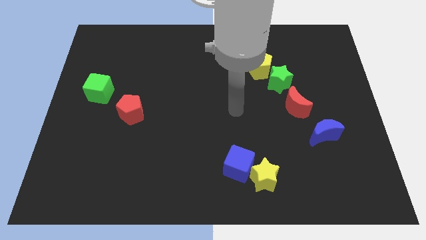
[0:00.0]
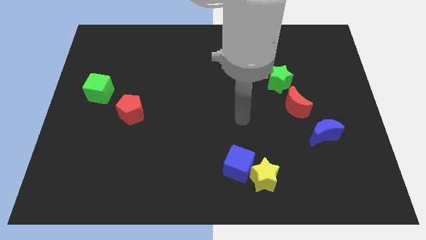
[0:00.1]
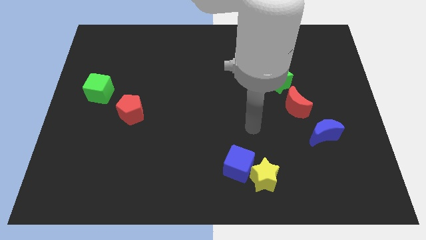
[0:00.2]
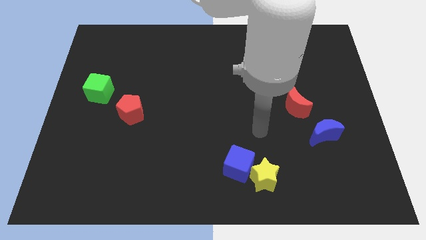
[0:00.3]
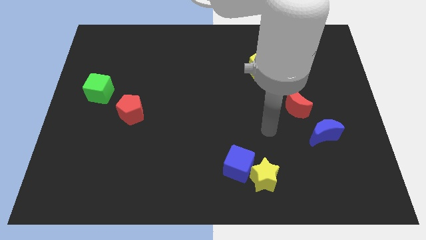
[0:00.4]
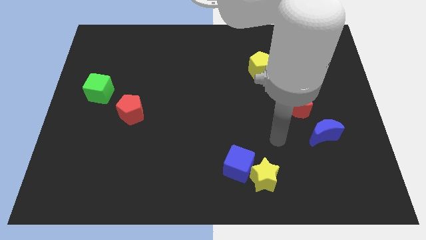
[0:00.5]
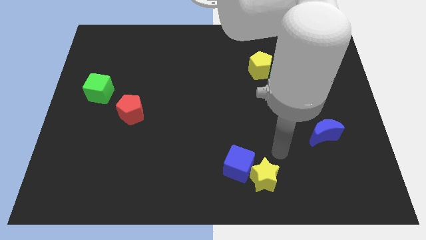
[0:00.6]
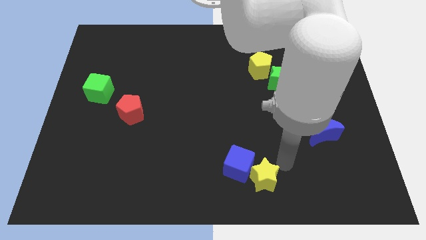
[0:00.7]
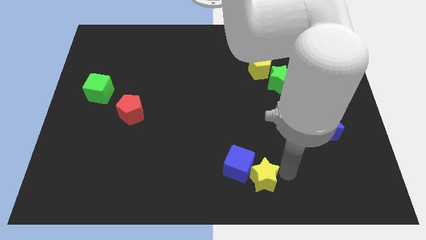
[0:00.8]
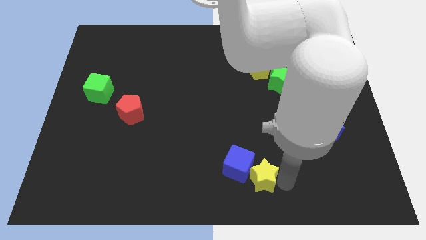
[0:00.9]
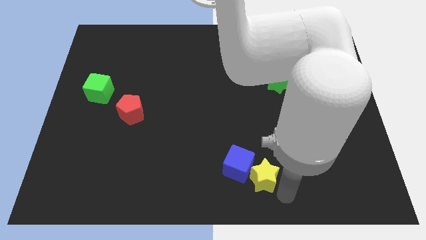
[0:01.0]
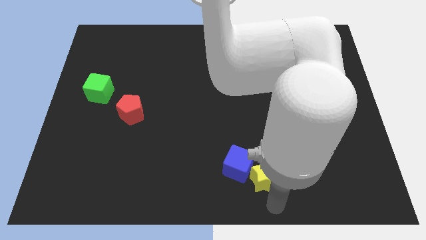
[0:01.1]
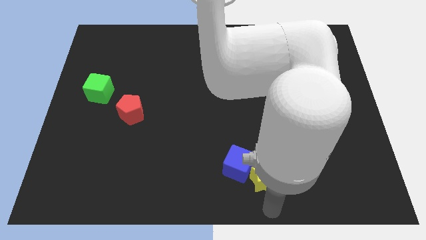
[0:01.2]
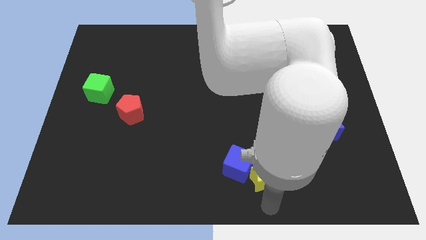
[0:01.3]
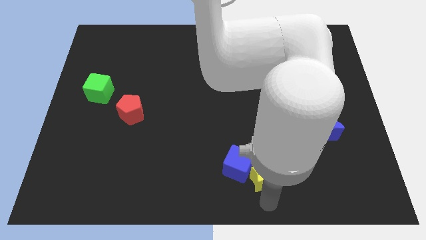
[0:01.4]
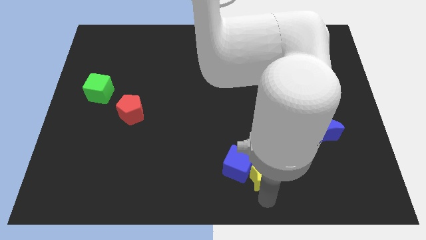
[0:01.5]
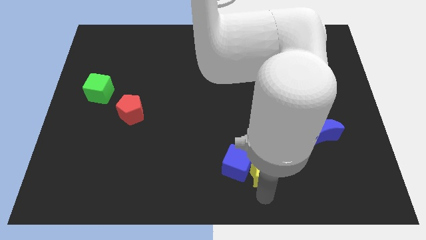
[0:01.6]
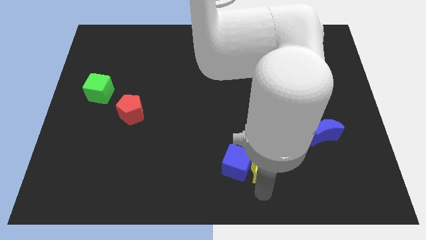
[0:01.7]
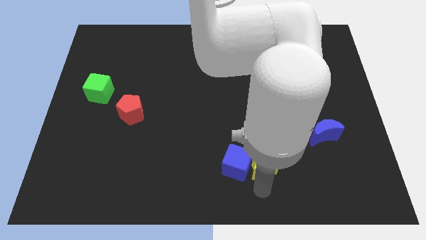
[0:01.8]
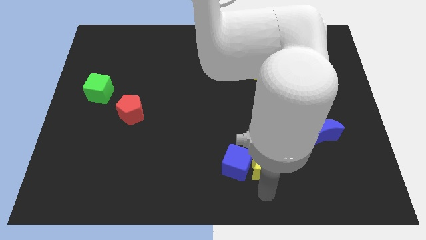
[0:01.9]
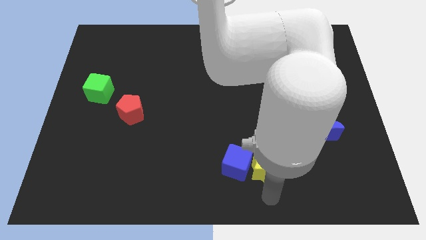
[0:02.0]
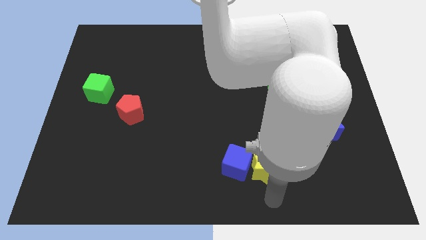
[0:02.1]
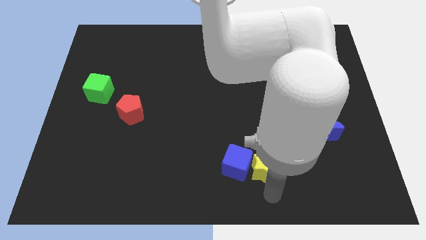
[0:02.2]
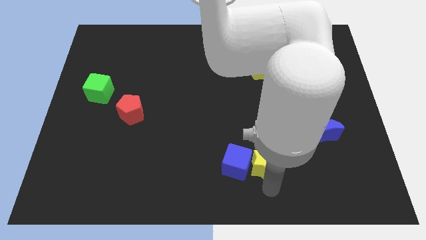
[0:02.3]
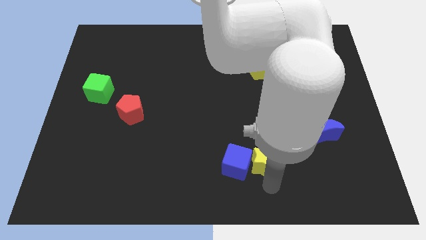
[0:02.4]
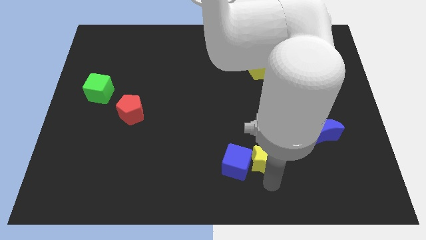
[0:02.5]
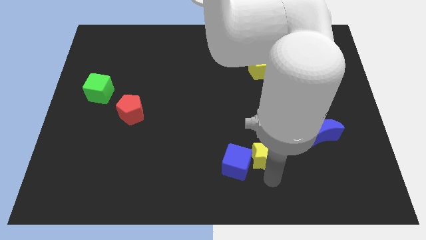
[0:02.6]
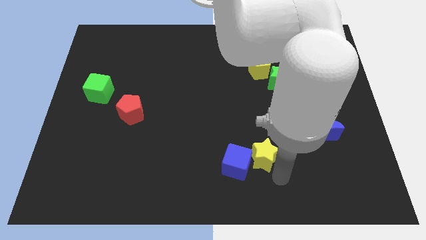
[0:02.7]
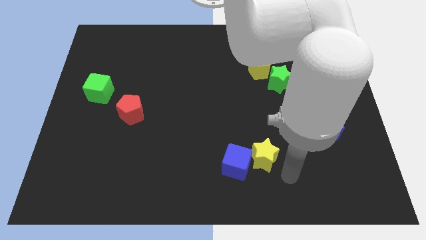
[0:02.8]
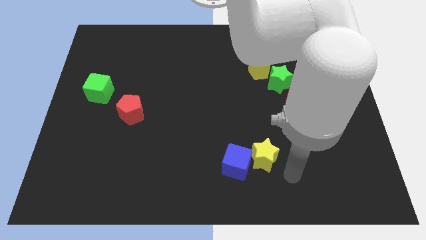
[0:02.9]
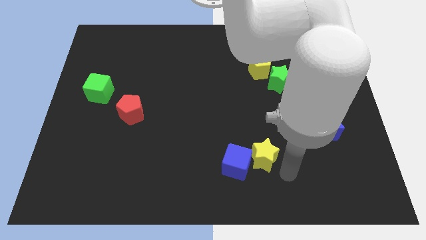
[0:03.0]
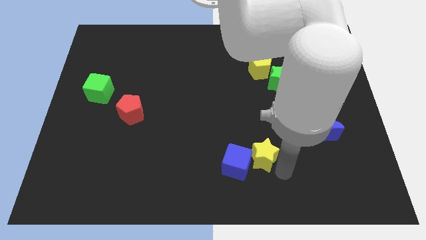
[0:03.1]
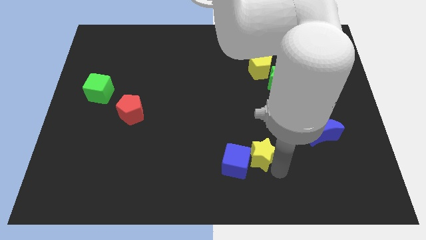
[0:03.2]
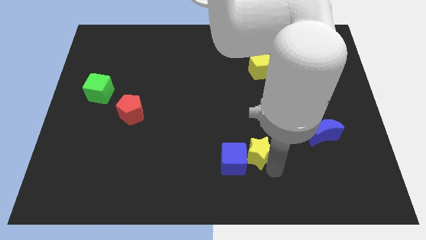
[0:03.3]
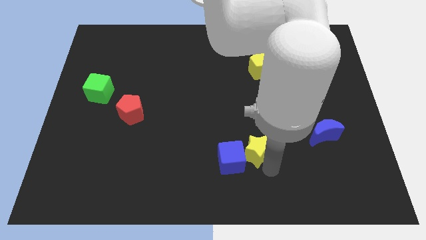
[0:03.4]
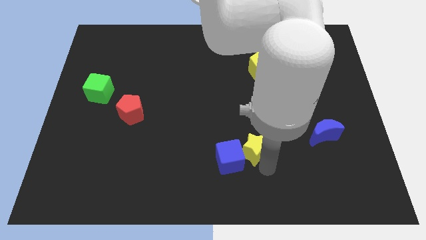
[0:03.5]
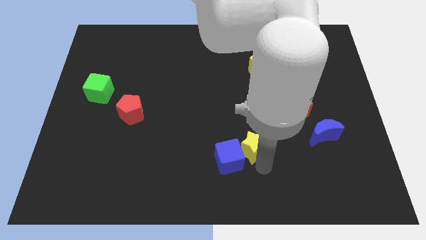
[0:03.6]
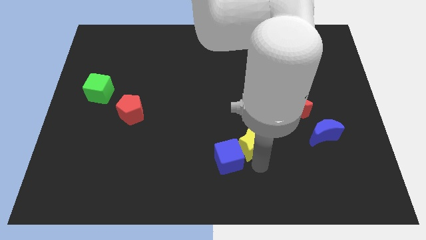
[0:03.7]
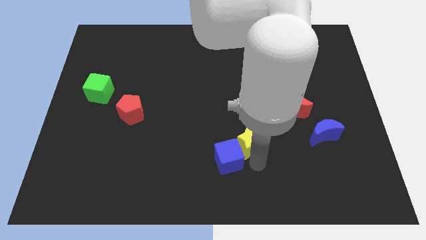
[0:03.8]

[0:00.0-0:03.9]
slightly slide the yellow star upwards and then left

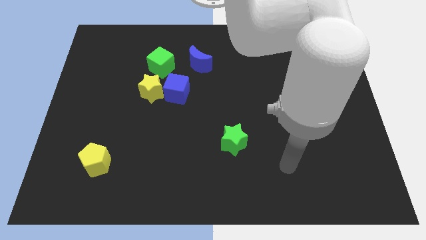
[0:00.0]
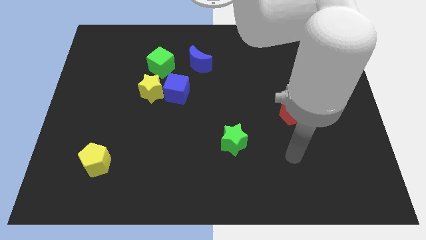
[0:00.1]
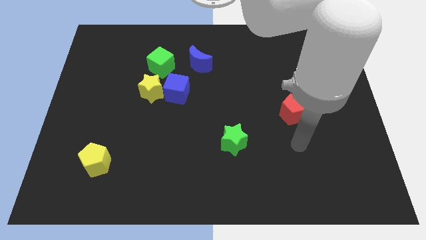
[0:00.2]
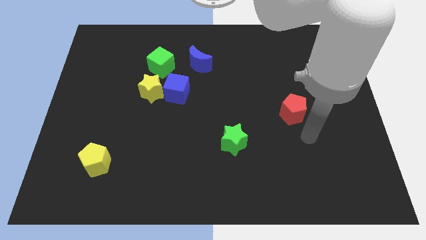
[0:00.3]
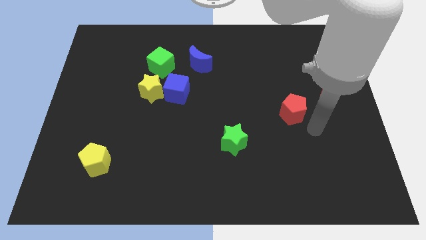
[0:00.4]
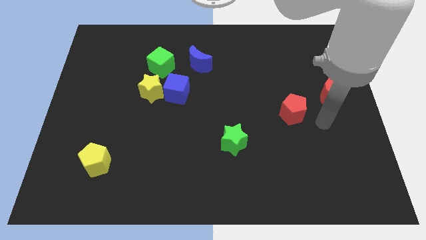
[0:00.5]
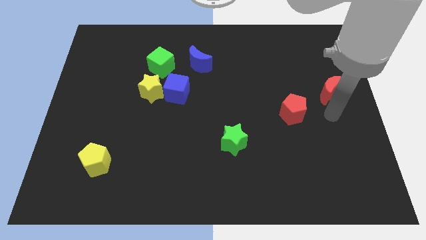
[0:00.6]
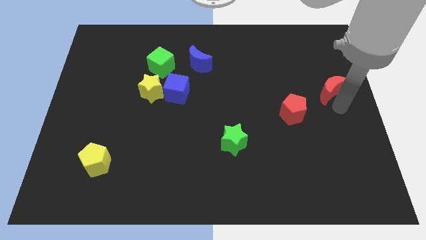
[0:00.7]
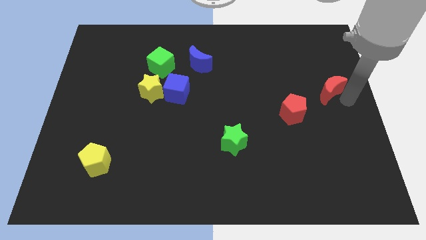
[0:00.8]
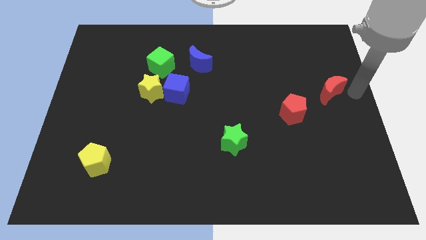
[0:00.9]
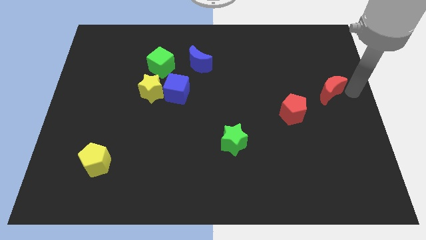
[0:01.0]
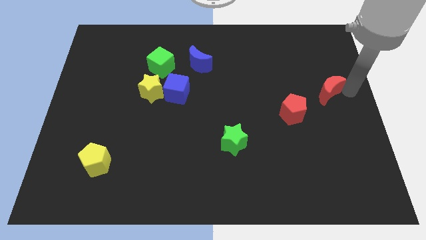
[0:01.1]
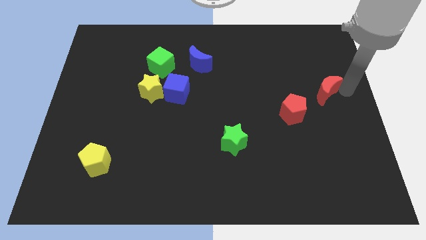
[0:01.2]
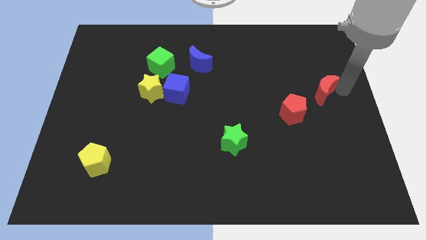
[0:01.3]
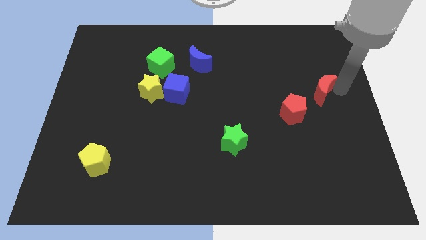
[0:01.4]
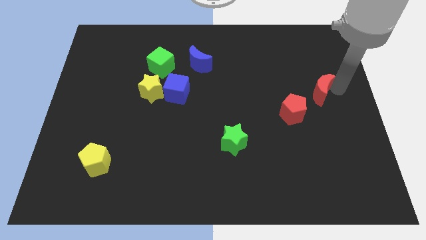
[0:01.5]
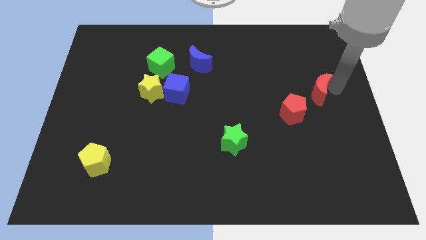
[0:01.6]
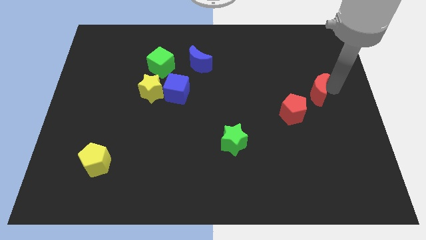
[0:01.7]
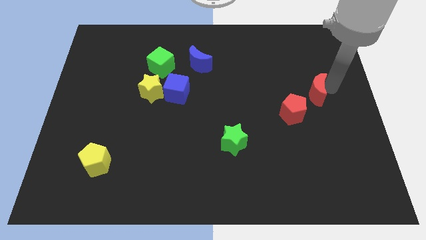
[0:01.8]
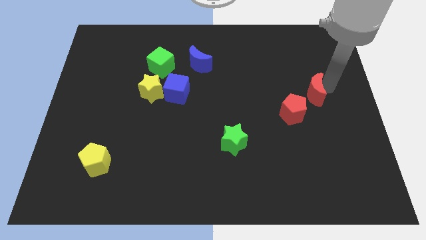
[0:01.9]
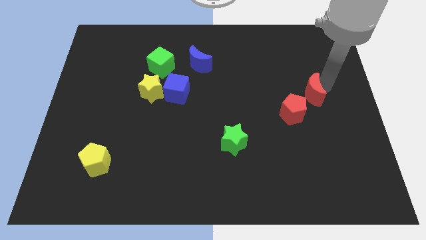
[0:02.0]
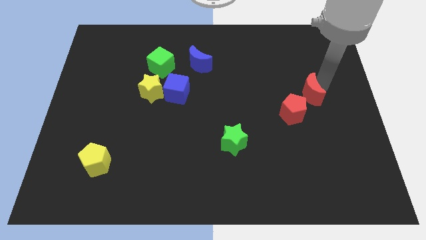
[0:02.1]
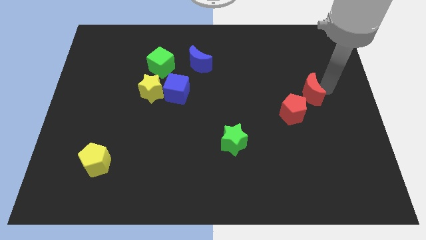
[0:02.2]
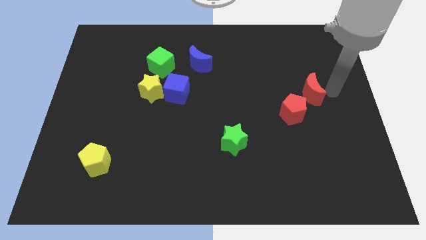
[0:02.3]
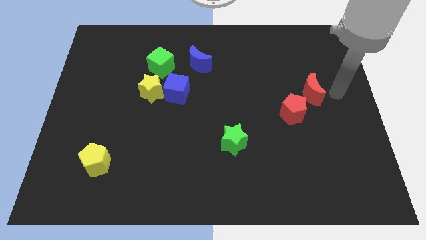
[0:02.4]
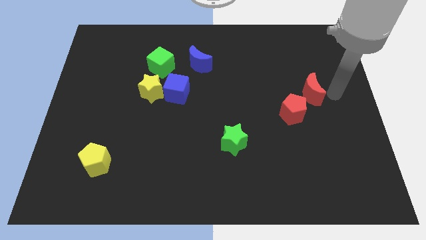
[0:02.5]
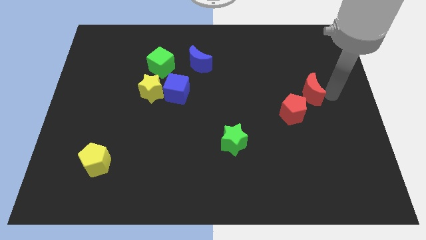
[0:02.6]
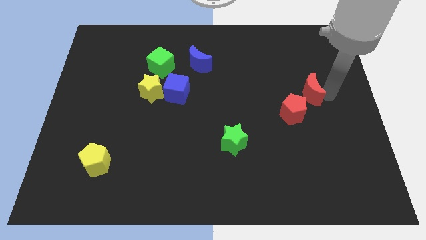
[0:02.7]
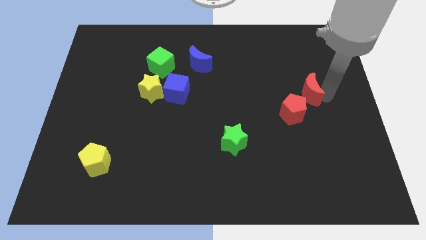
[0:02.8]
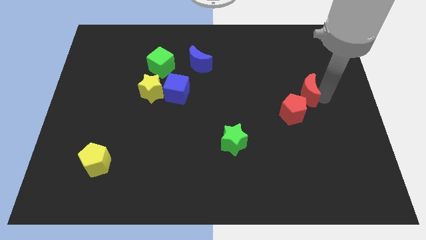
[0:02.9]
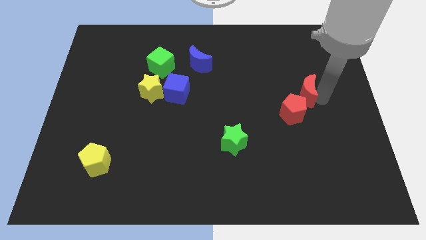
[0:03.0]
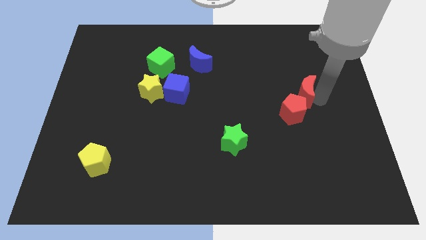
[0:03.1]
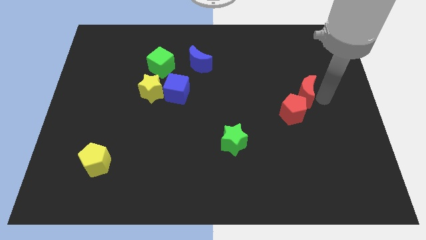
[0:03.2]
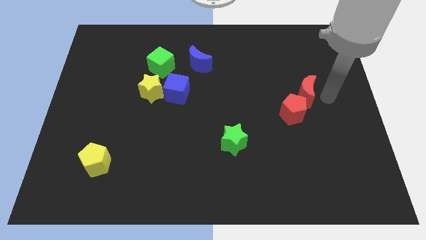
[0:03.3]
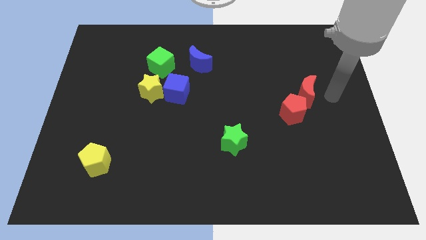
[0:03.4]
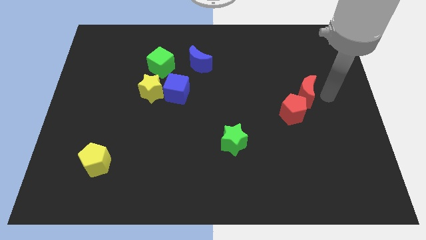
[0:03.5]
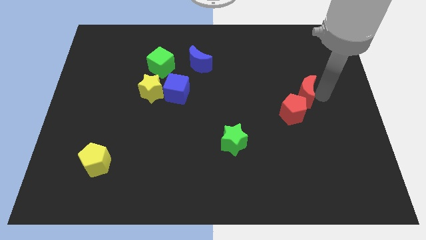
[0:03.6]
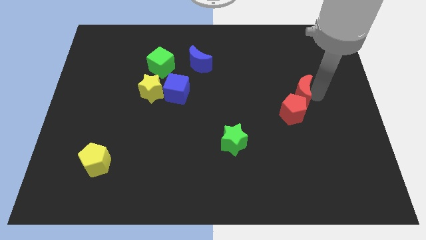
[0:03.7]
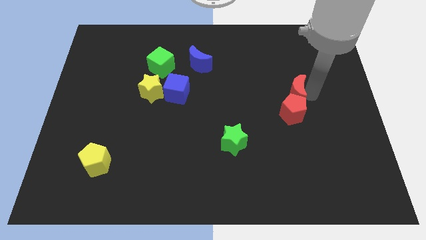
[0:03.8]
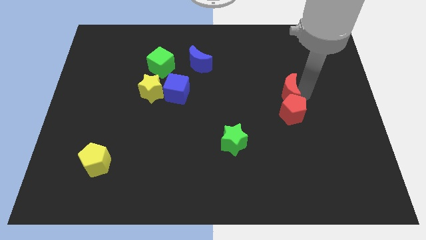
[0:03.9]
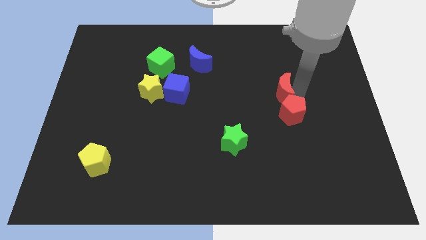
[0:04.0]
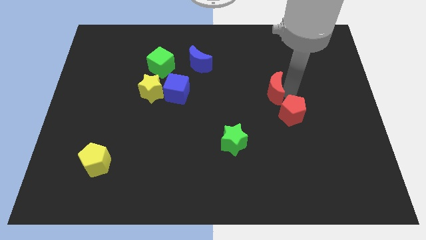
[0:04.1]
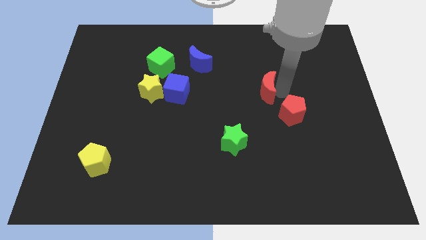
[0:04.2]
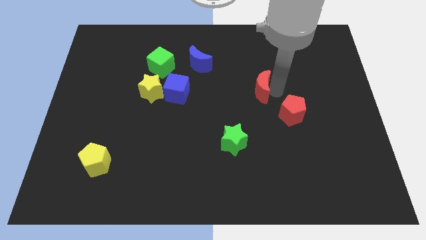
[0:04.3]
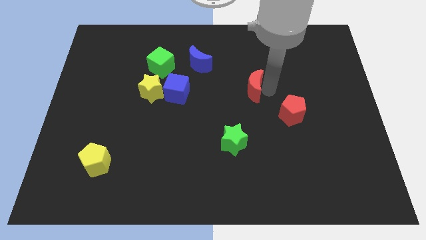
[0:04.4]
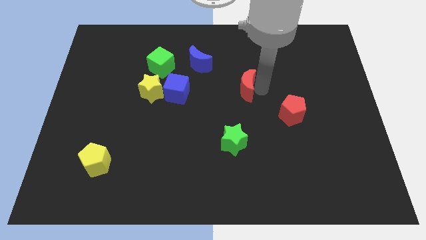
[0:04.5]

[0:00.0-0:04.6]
slide the red moon left
